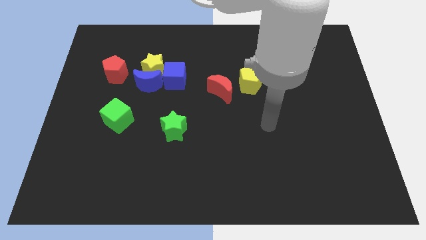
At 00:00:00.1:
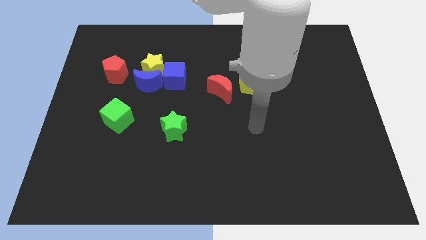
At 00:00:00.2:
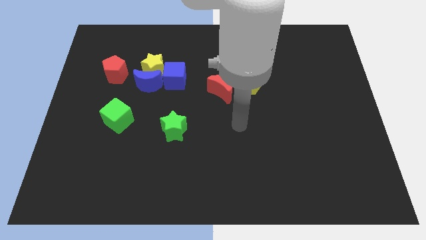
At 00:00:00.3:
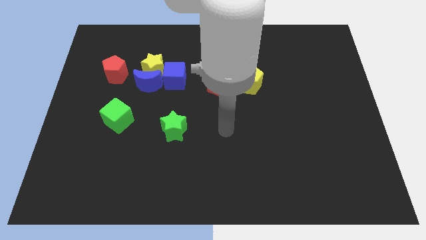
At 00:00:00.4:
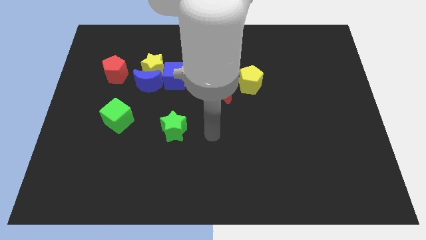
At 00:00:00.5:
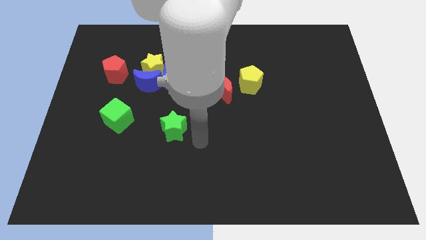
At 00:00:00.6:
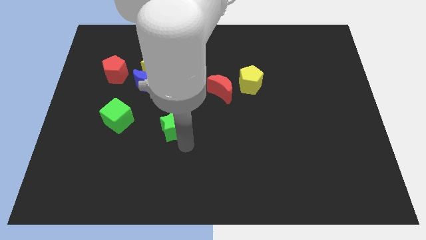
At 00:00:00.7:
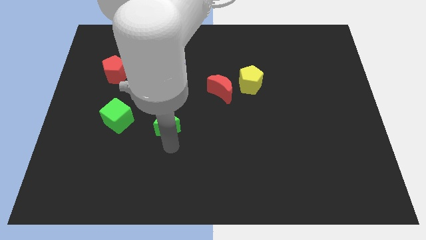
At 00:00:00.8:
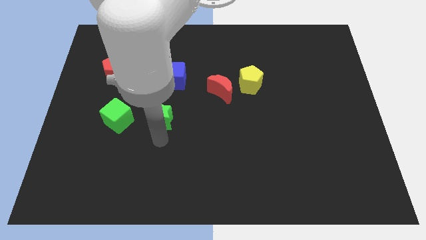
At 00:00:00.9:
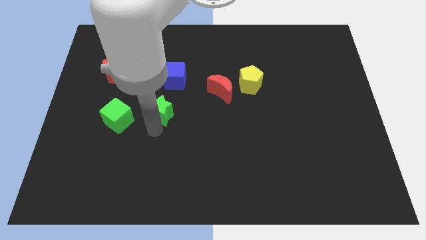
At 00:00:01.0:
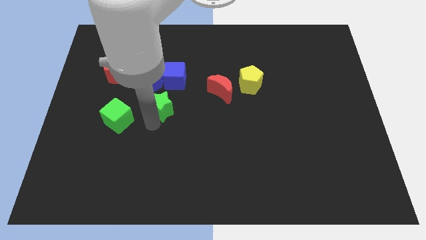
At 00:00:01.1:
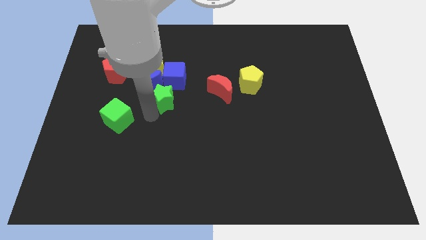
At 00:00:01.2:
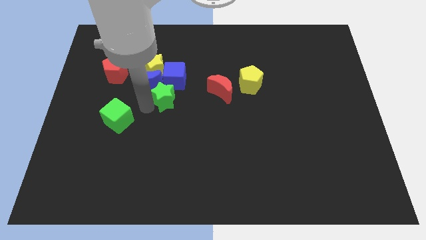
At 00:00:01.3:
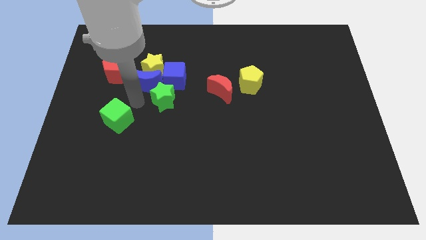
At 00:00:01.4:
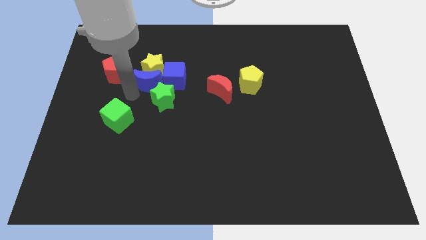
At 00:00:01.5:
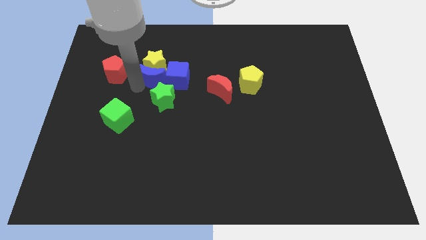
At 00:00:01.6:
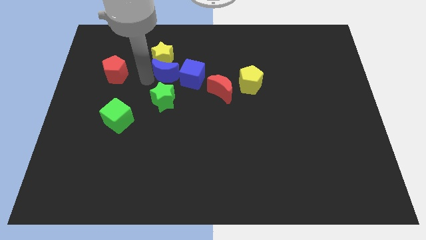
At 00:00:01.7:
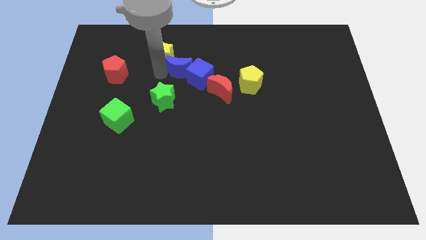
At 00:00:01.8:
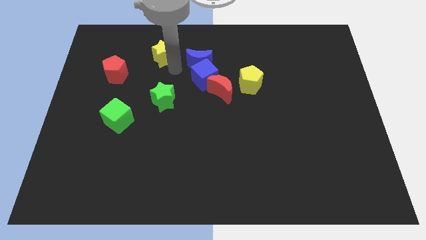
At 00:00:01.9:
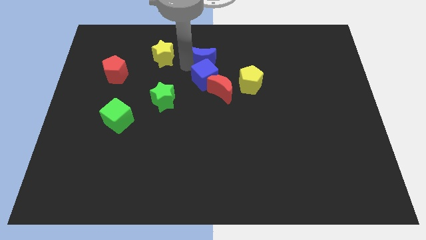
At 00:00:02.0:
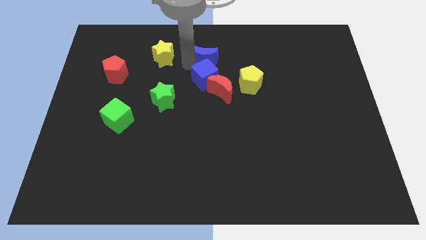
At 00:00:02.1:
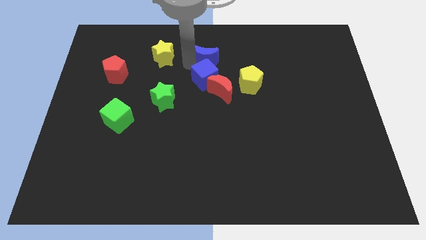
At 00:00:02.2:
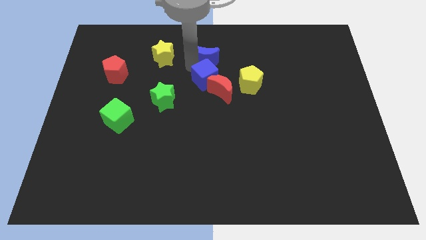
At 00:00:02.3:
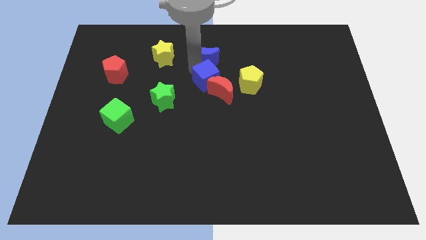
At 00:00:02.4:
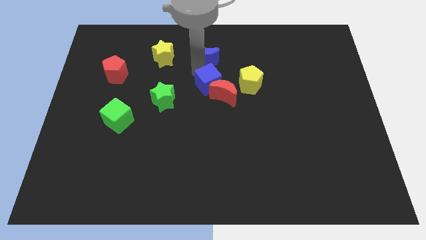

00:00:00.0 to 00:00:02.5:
separate the blue cube from the yellow star and blue moon

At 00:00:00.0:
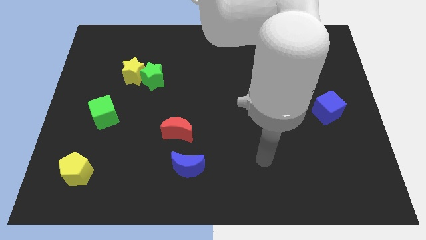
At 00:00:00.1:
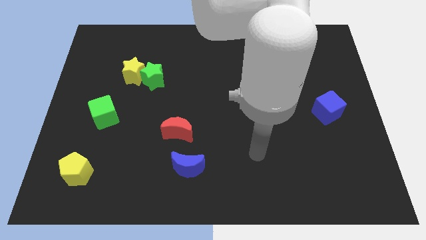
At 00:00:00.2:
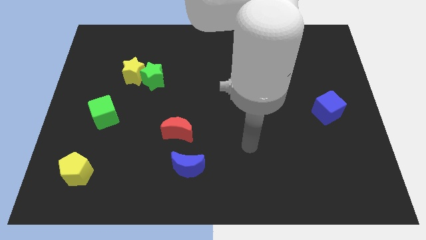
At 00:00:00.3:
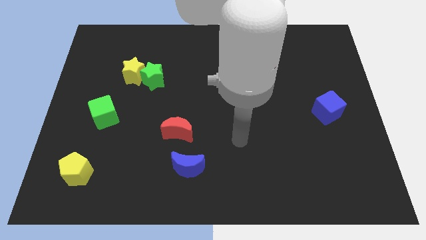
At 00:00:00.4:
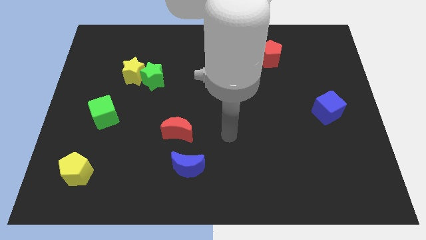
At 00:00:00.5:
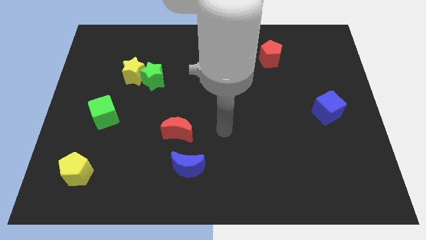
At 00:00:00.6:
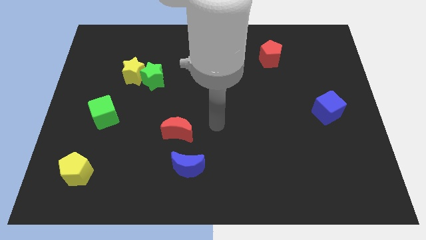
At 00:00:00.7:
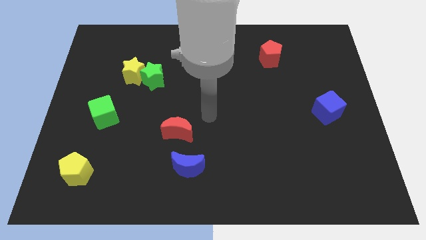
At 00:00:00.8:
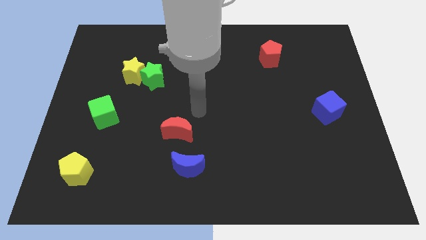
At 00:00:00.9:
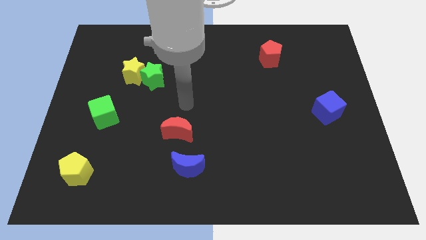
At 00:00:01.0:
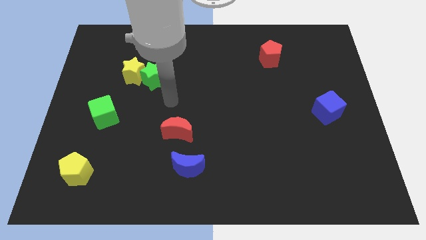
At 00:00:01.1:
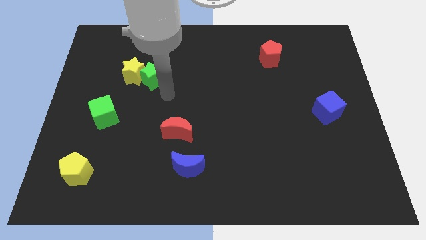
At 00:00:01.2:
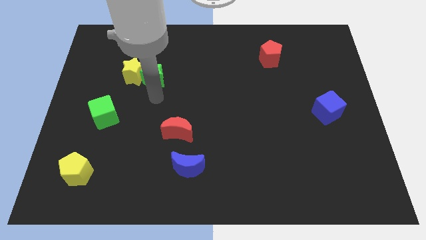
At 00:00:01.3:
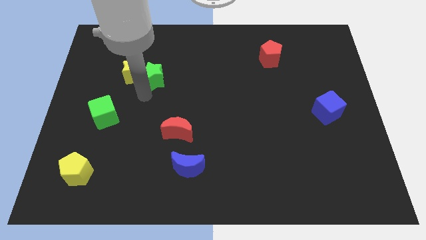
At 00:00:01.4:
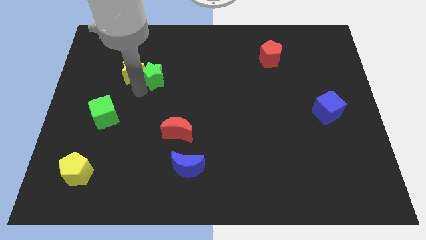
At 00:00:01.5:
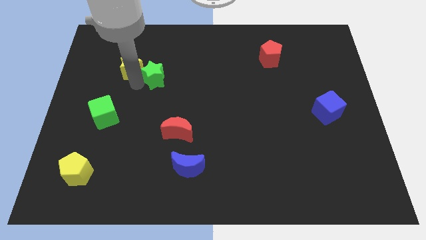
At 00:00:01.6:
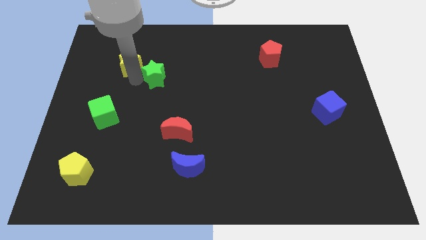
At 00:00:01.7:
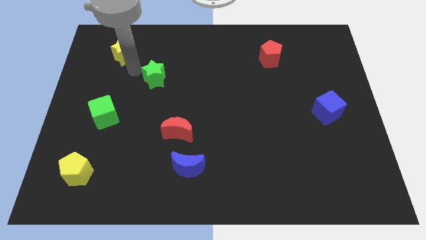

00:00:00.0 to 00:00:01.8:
move the green star away from the yellow star

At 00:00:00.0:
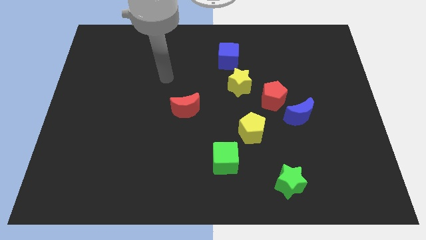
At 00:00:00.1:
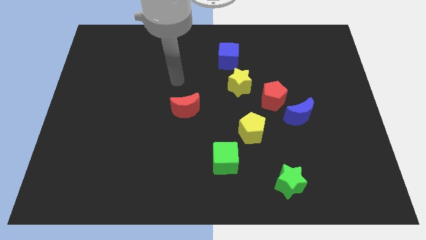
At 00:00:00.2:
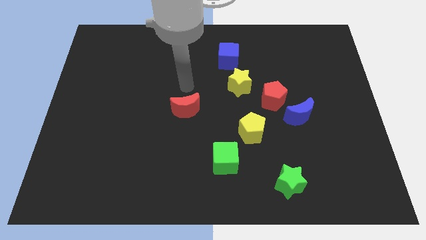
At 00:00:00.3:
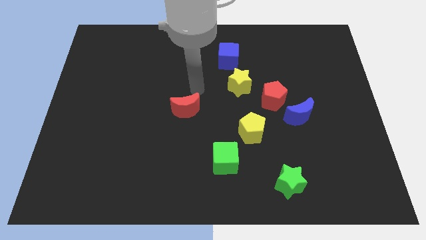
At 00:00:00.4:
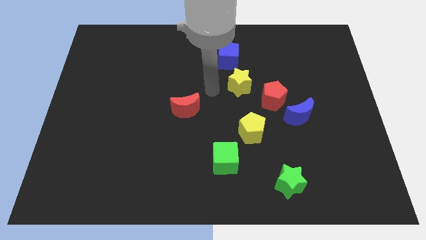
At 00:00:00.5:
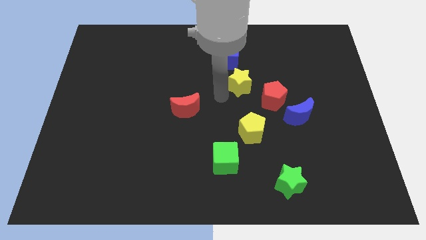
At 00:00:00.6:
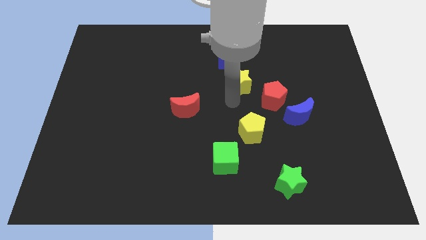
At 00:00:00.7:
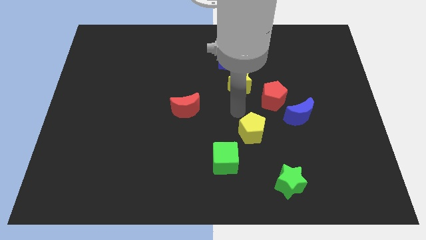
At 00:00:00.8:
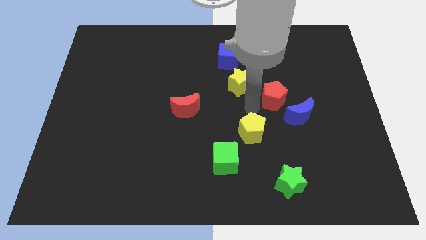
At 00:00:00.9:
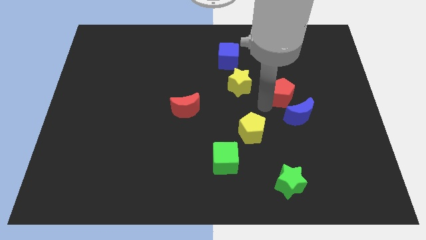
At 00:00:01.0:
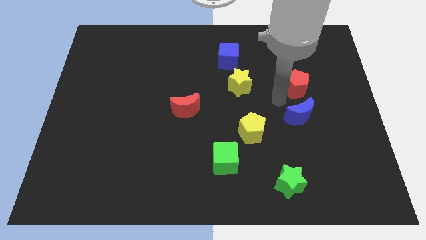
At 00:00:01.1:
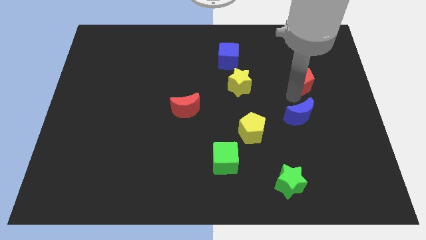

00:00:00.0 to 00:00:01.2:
move the blue moon away from the red pentagon

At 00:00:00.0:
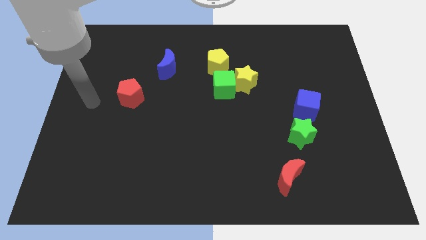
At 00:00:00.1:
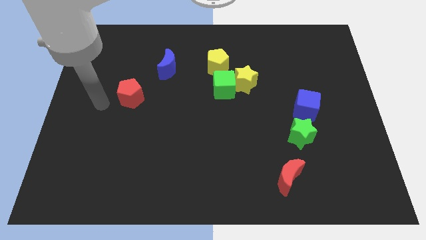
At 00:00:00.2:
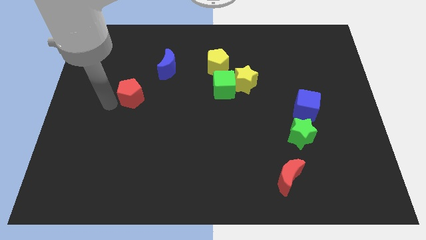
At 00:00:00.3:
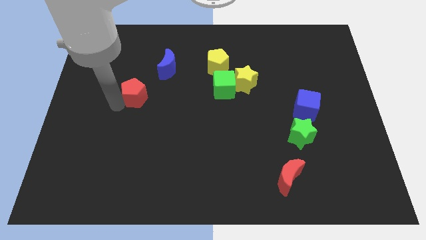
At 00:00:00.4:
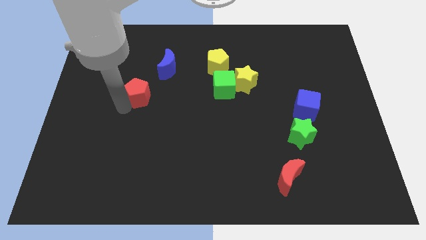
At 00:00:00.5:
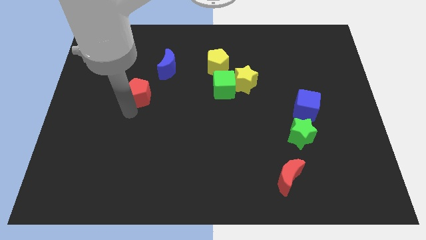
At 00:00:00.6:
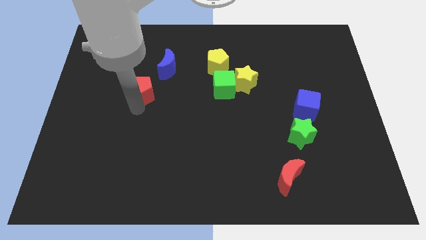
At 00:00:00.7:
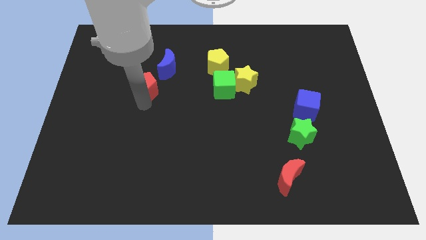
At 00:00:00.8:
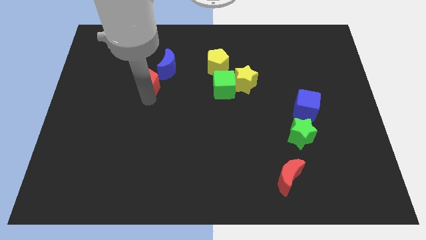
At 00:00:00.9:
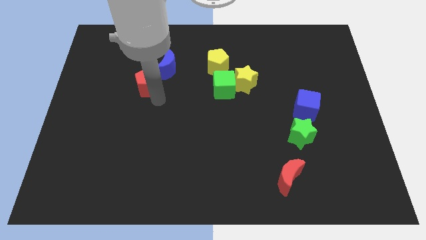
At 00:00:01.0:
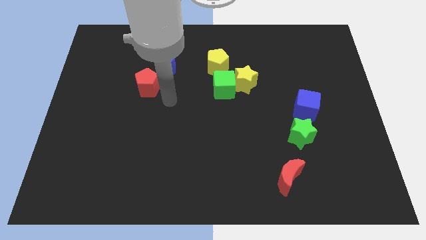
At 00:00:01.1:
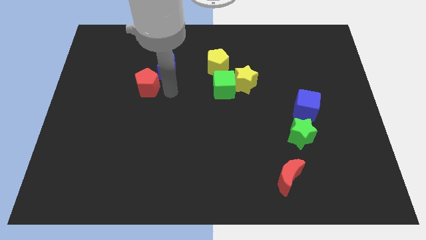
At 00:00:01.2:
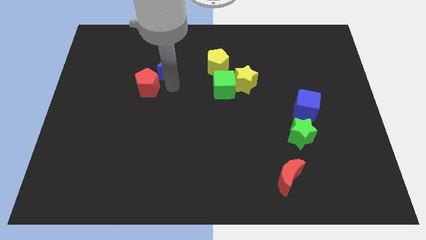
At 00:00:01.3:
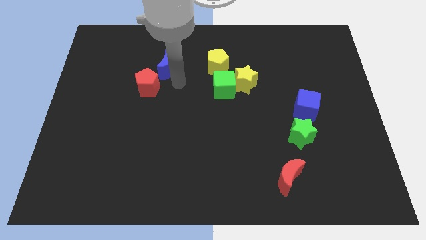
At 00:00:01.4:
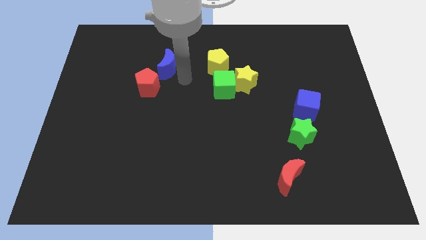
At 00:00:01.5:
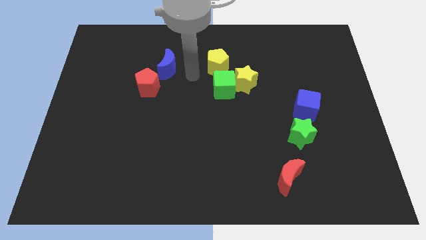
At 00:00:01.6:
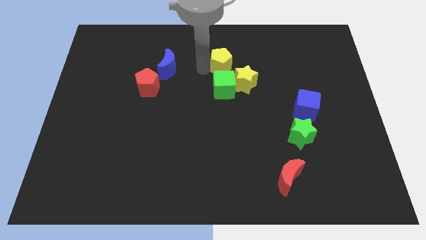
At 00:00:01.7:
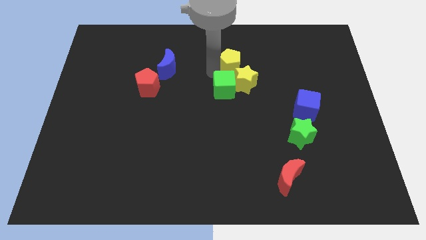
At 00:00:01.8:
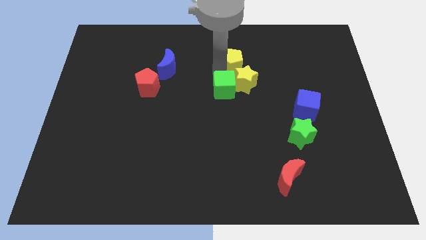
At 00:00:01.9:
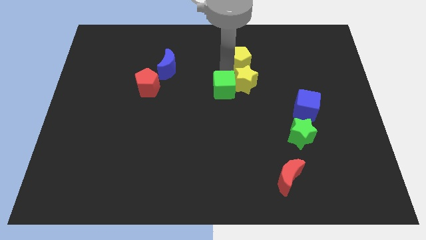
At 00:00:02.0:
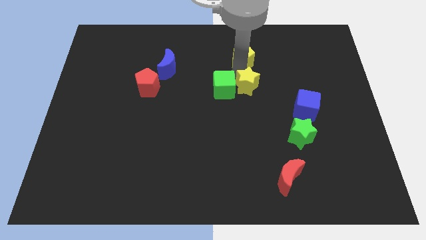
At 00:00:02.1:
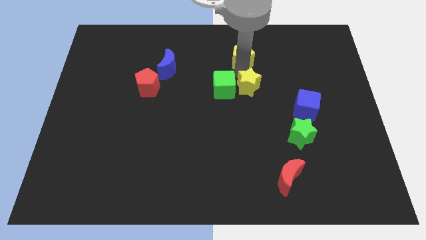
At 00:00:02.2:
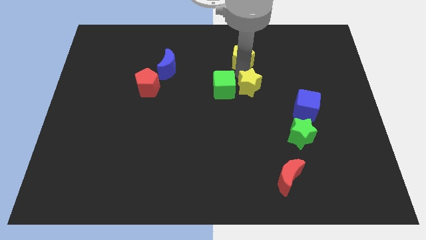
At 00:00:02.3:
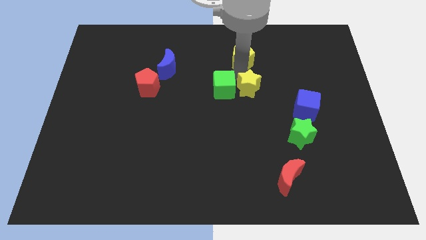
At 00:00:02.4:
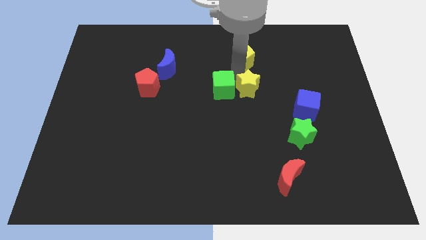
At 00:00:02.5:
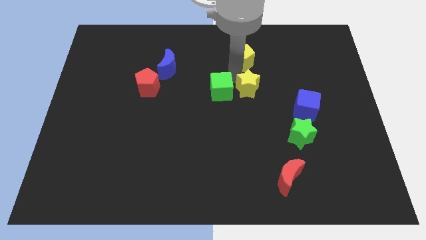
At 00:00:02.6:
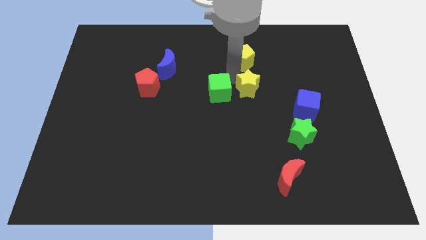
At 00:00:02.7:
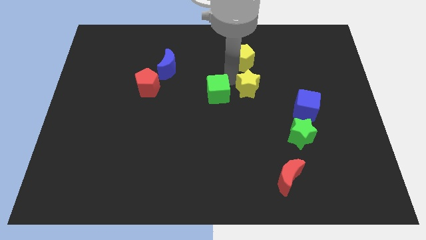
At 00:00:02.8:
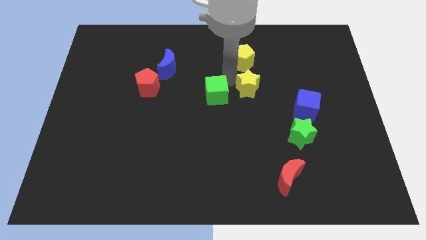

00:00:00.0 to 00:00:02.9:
move the green cube away from the yellow star and yellow pentagon

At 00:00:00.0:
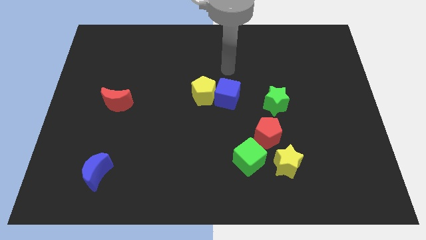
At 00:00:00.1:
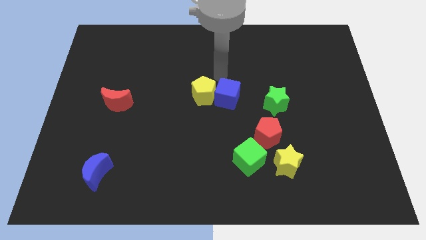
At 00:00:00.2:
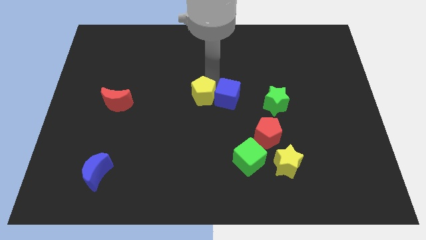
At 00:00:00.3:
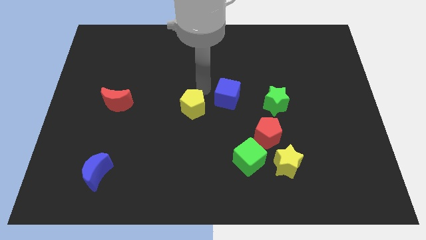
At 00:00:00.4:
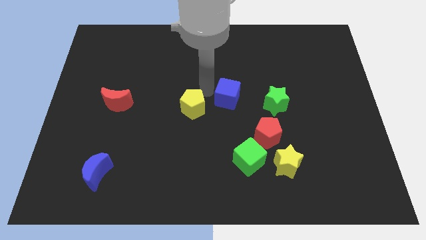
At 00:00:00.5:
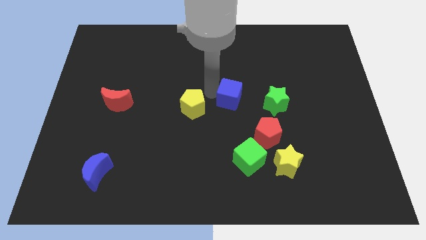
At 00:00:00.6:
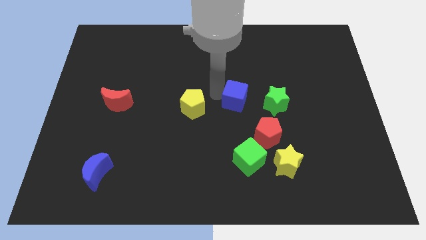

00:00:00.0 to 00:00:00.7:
separate the blue cube from the yellow pentagon
